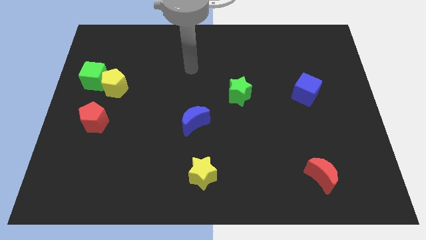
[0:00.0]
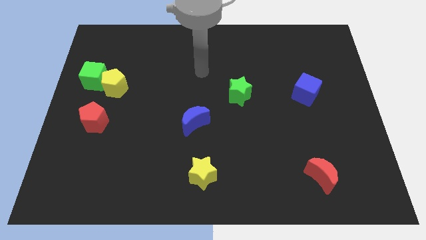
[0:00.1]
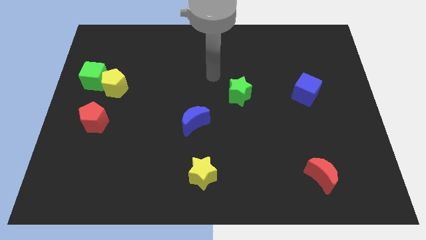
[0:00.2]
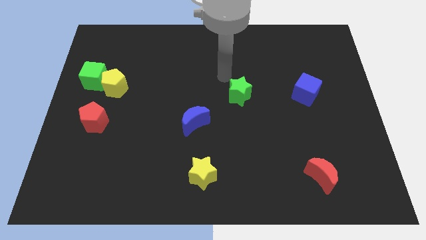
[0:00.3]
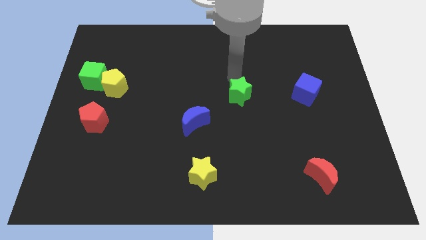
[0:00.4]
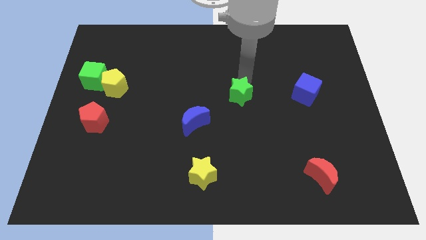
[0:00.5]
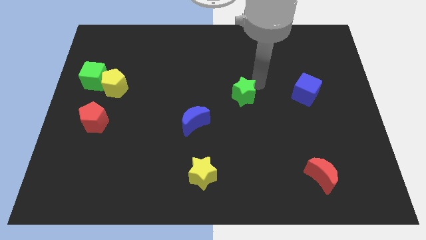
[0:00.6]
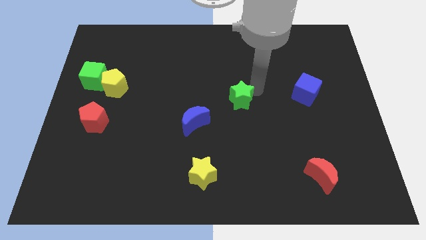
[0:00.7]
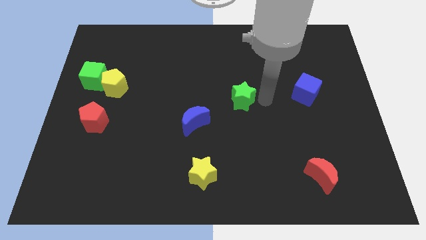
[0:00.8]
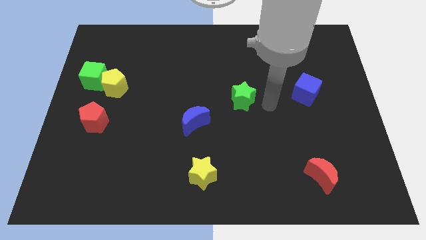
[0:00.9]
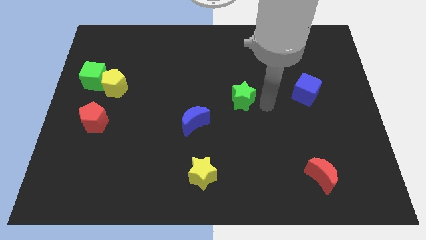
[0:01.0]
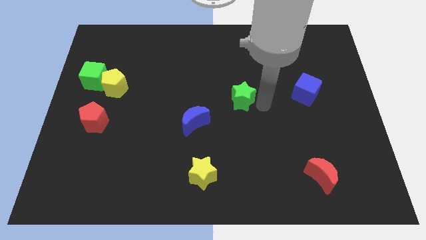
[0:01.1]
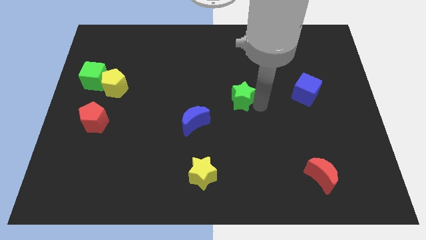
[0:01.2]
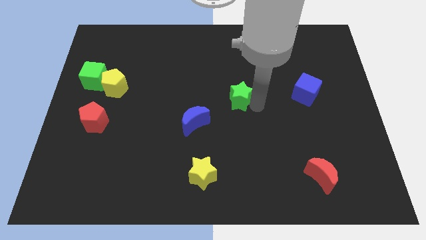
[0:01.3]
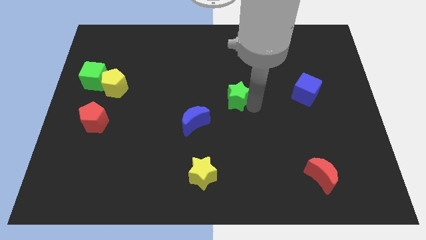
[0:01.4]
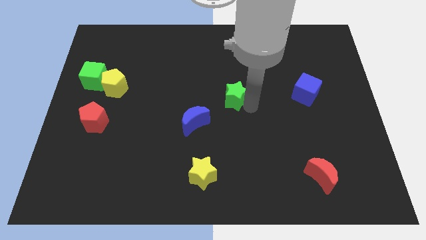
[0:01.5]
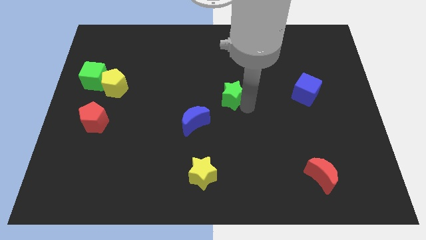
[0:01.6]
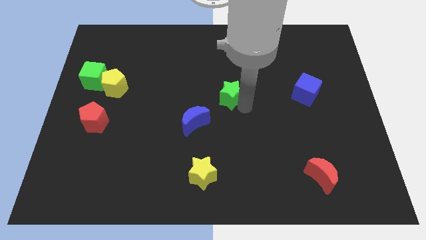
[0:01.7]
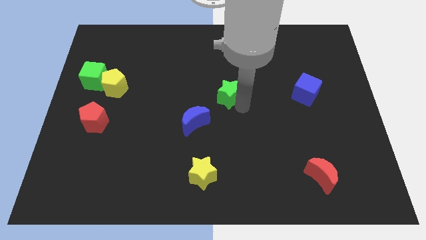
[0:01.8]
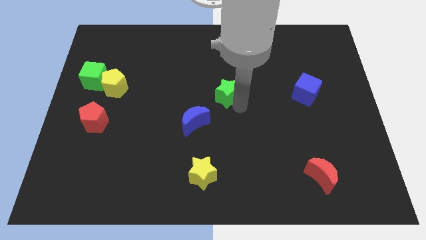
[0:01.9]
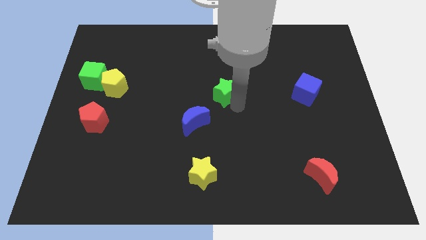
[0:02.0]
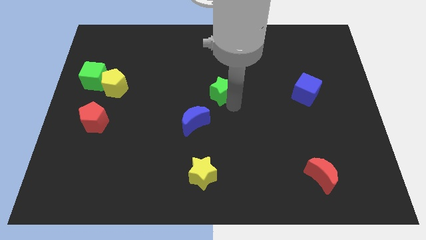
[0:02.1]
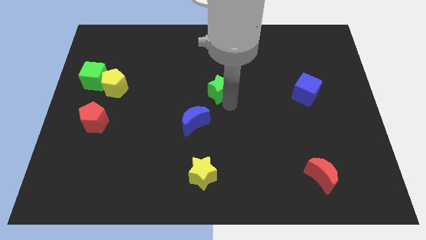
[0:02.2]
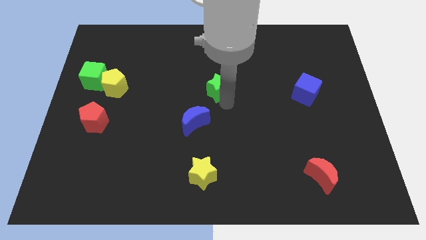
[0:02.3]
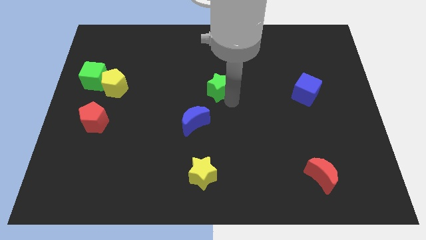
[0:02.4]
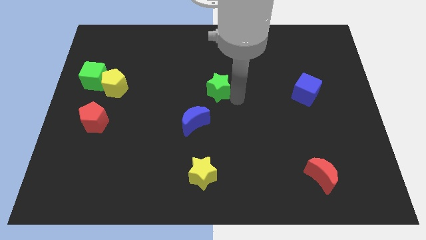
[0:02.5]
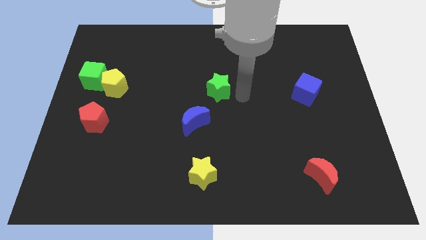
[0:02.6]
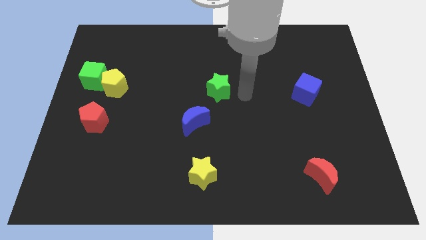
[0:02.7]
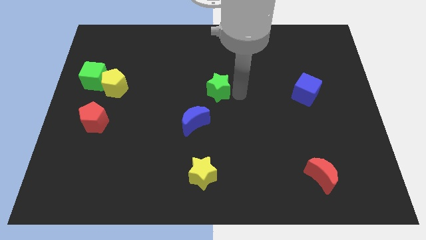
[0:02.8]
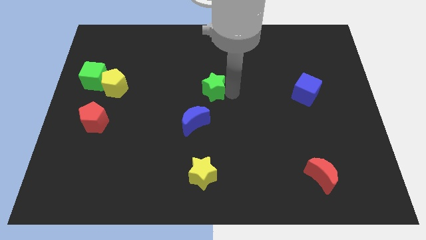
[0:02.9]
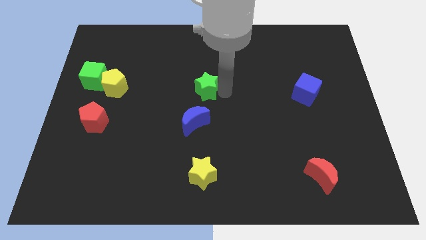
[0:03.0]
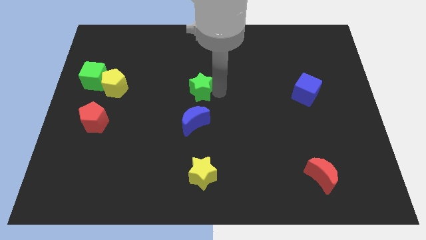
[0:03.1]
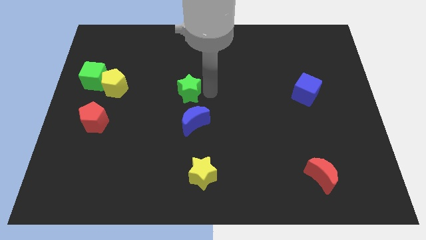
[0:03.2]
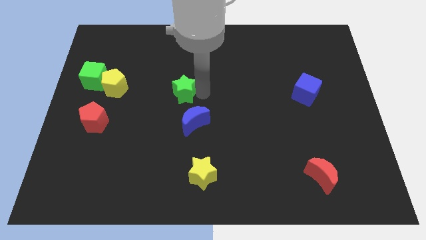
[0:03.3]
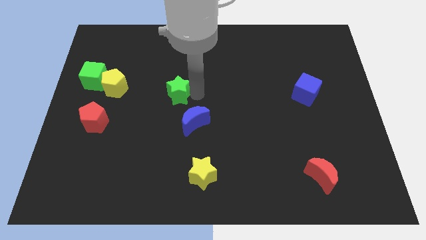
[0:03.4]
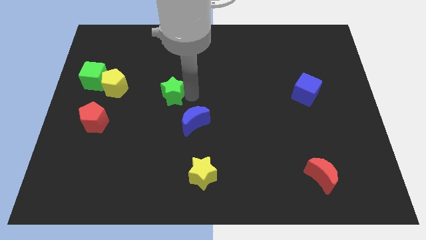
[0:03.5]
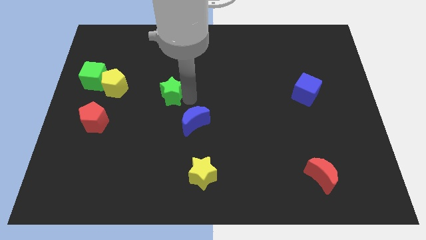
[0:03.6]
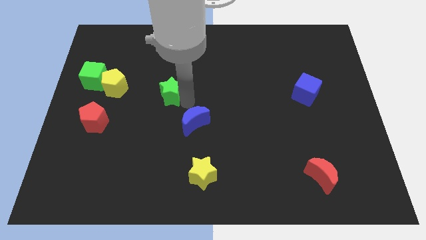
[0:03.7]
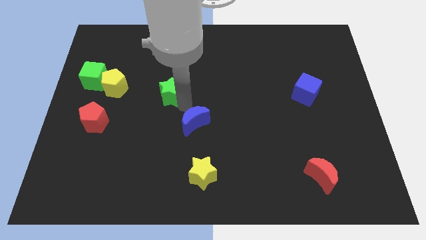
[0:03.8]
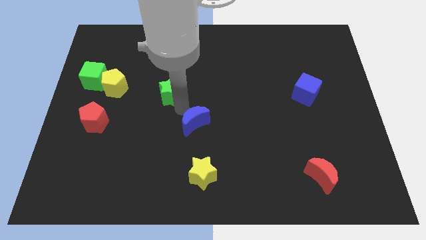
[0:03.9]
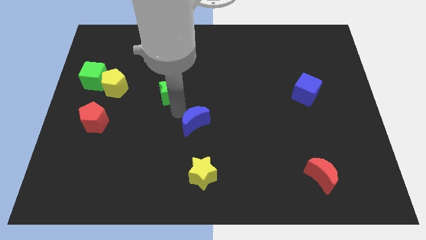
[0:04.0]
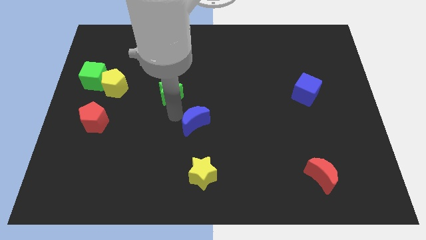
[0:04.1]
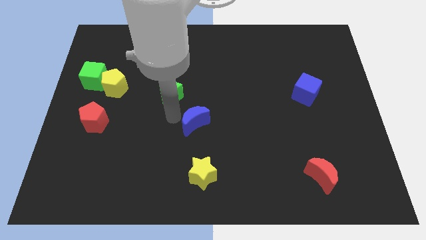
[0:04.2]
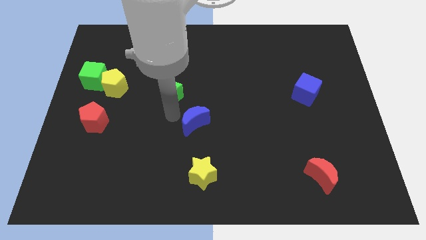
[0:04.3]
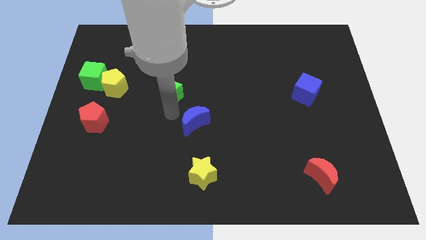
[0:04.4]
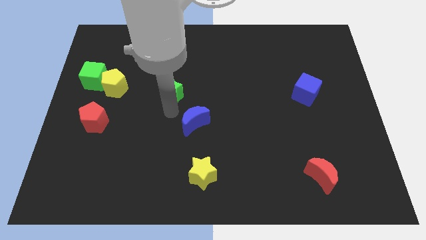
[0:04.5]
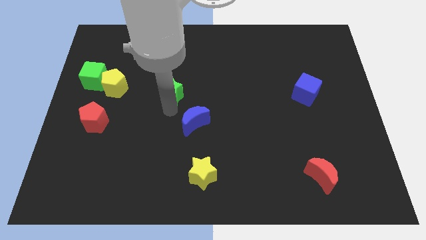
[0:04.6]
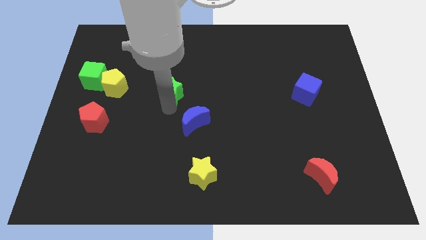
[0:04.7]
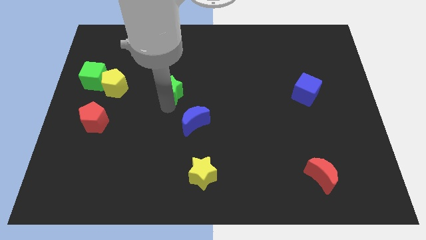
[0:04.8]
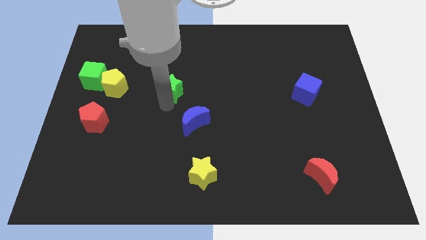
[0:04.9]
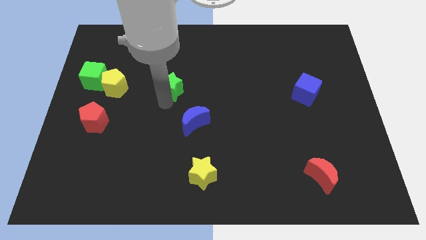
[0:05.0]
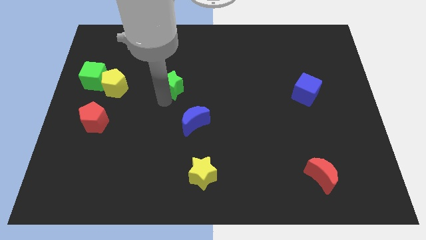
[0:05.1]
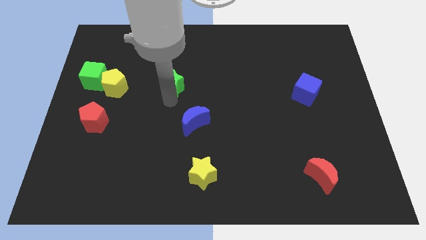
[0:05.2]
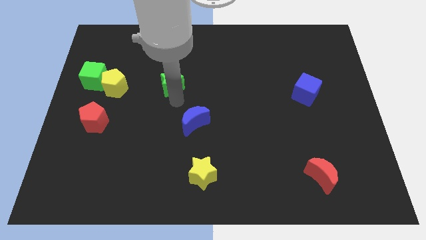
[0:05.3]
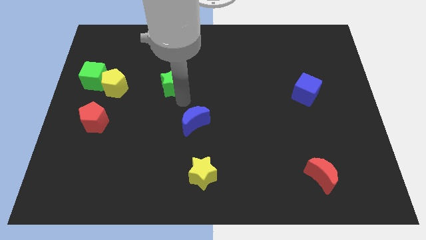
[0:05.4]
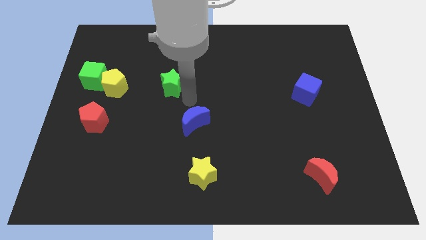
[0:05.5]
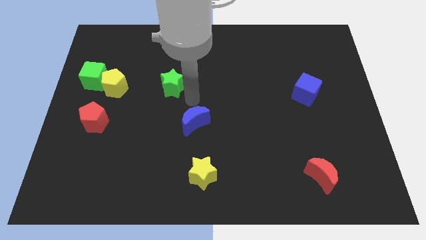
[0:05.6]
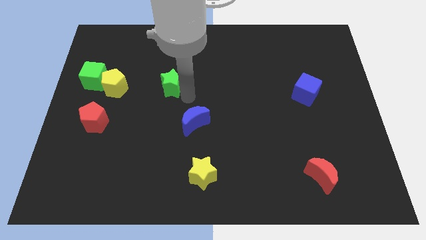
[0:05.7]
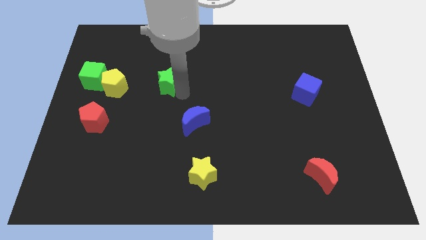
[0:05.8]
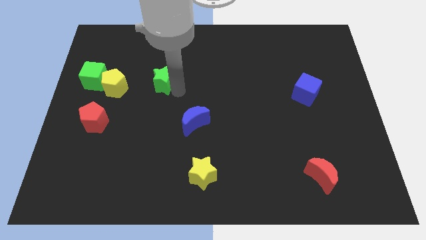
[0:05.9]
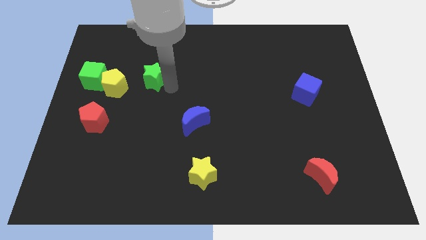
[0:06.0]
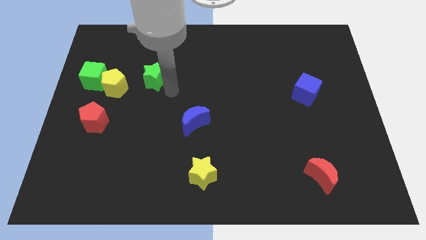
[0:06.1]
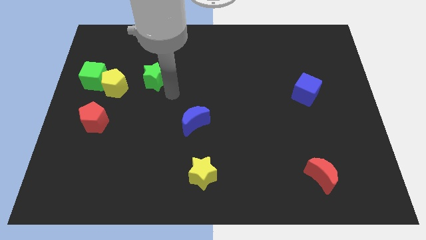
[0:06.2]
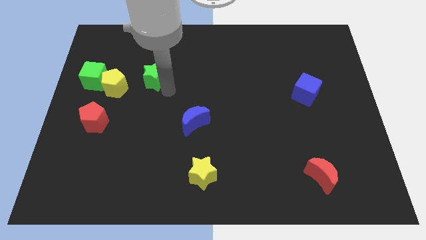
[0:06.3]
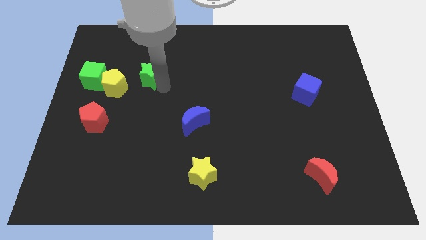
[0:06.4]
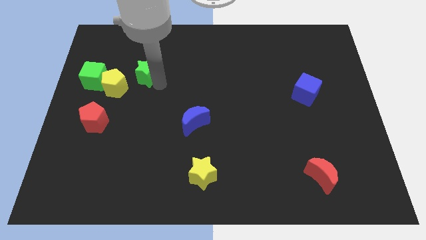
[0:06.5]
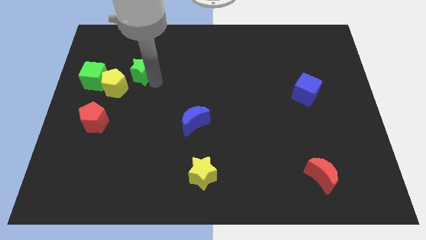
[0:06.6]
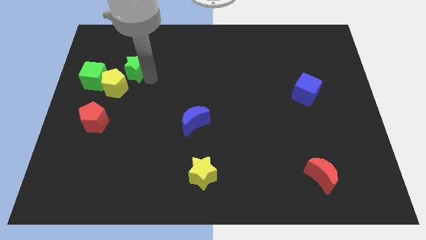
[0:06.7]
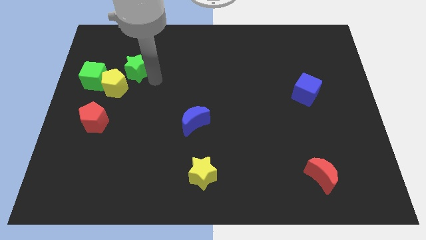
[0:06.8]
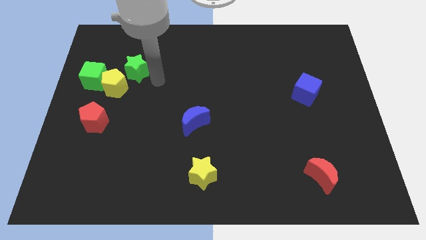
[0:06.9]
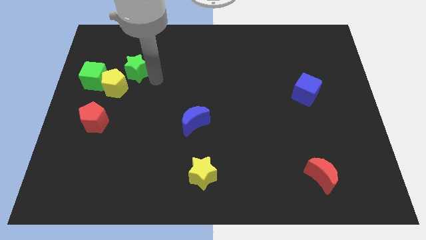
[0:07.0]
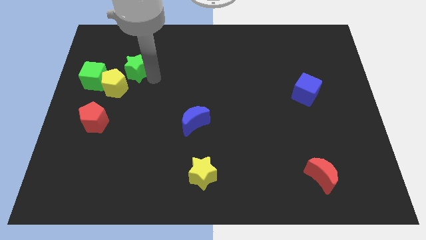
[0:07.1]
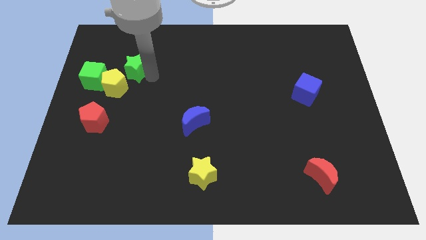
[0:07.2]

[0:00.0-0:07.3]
move the green star diagonally up and to the right of the green cube

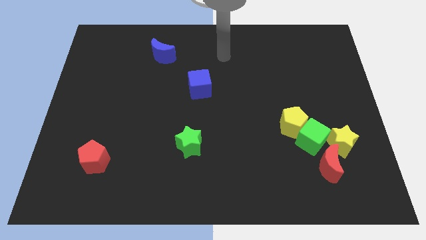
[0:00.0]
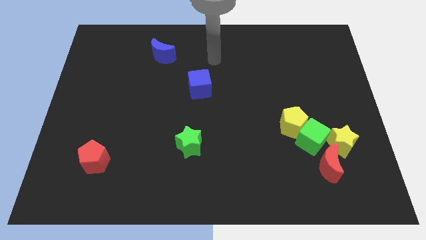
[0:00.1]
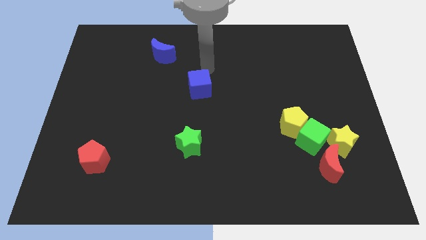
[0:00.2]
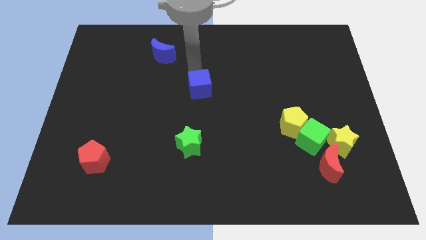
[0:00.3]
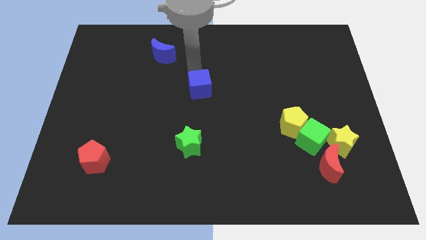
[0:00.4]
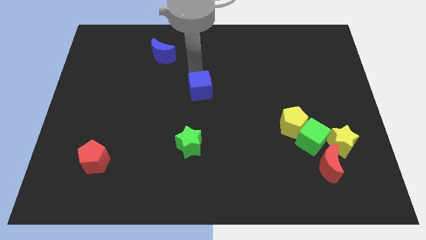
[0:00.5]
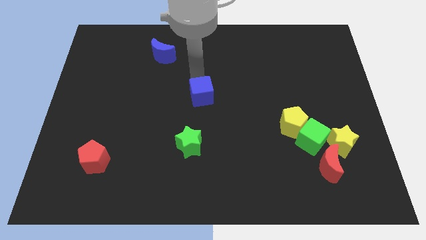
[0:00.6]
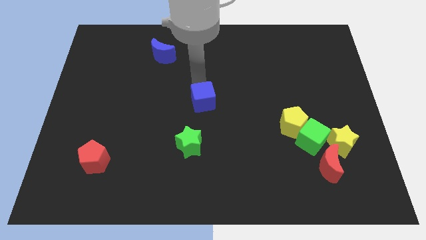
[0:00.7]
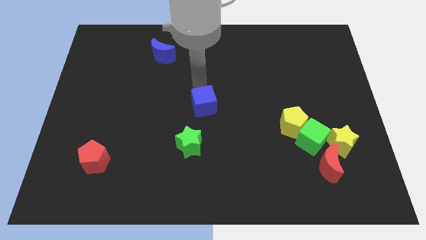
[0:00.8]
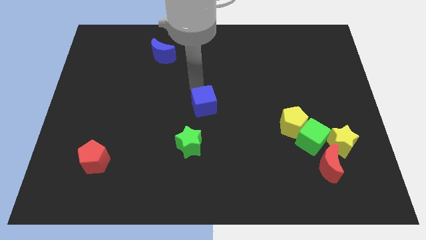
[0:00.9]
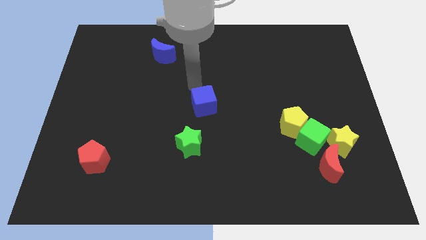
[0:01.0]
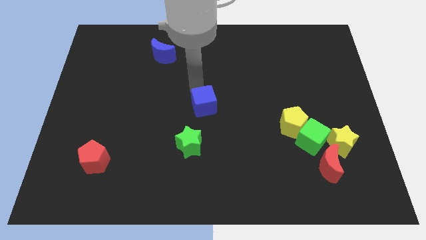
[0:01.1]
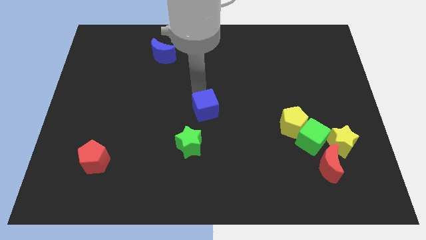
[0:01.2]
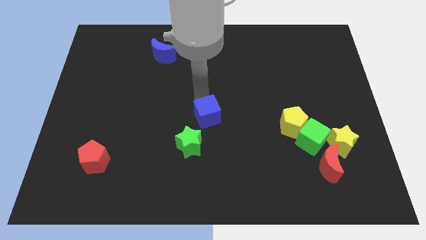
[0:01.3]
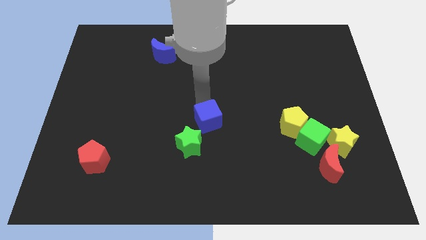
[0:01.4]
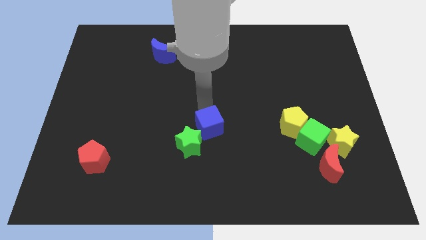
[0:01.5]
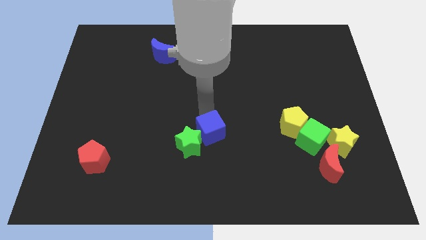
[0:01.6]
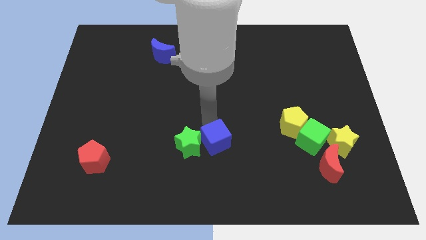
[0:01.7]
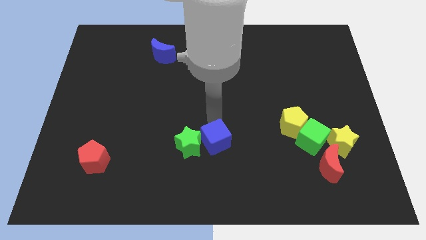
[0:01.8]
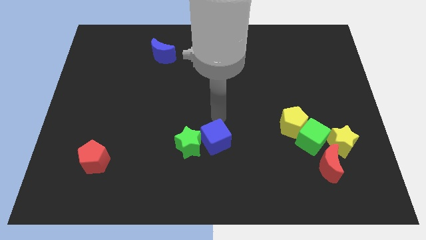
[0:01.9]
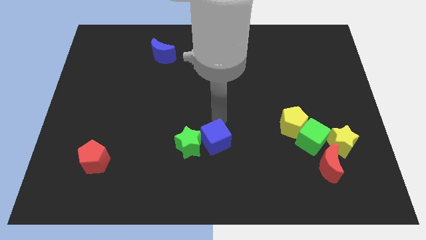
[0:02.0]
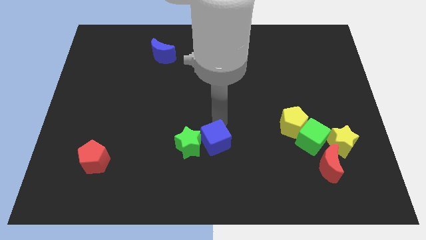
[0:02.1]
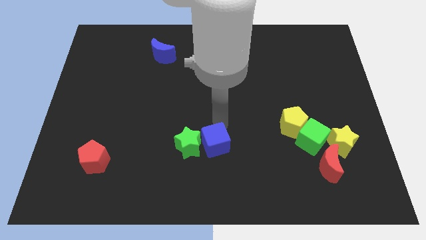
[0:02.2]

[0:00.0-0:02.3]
move the blue cube to the bottom right of the green star
